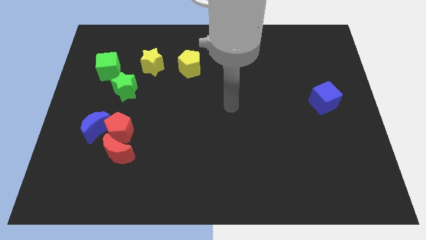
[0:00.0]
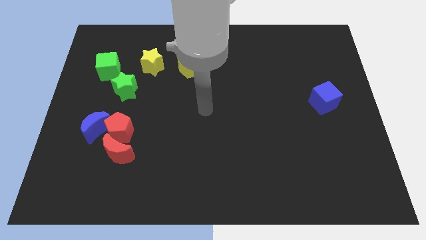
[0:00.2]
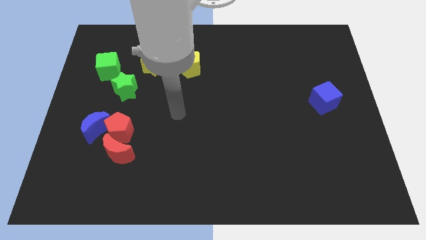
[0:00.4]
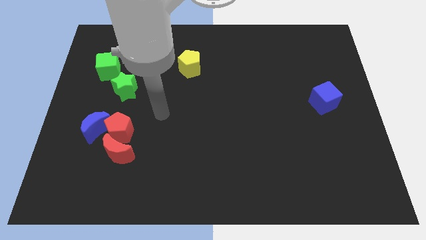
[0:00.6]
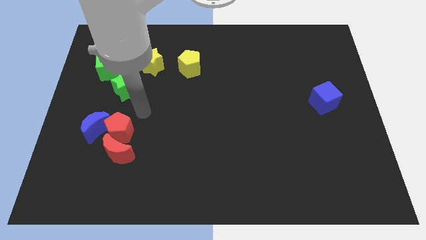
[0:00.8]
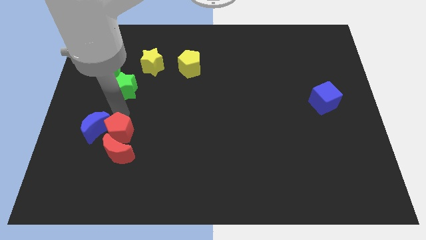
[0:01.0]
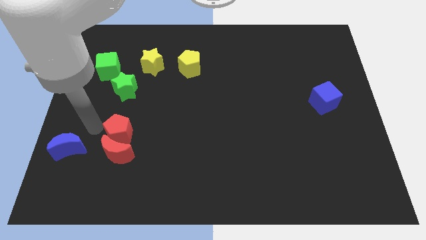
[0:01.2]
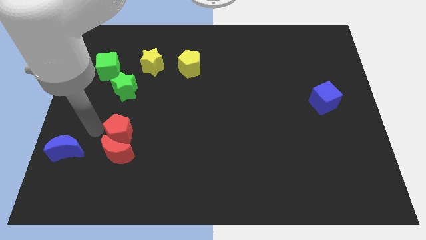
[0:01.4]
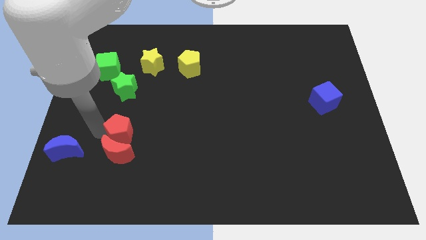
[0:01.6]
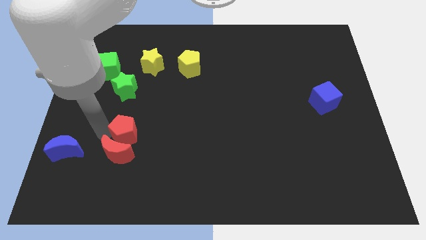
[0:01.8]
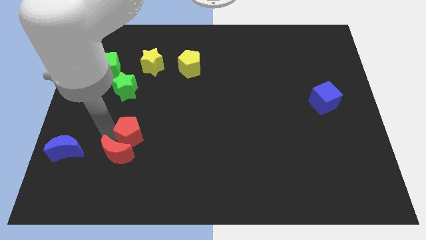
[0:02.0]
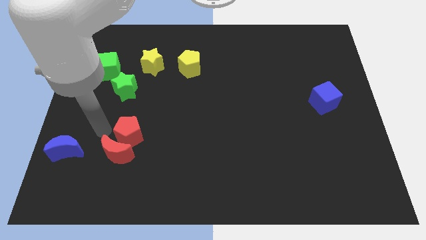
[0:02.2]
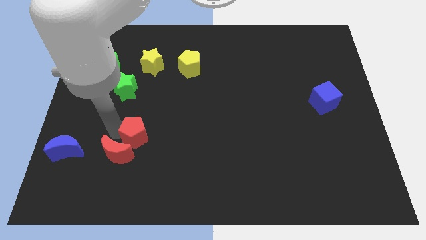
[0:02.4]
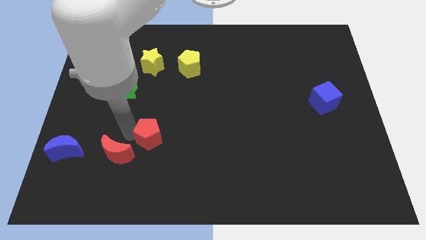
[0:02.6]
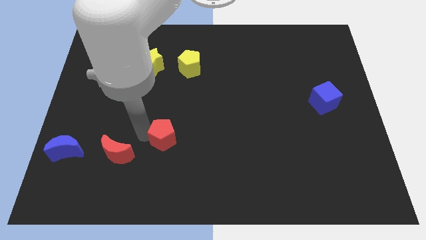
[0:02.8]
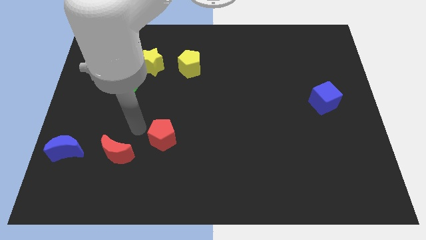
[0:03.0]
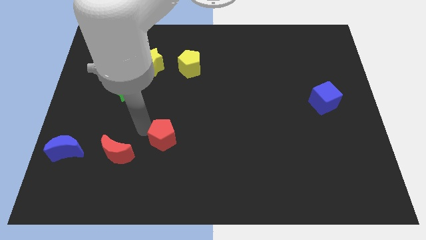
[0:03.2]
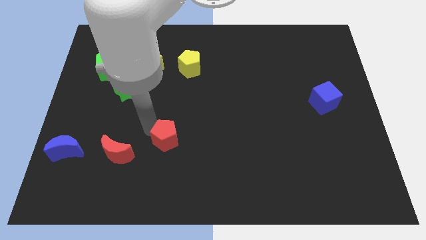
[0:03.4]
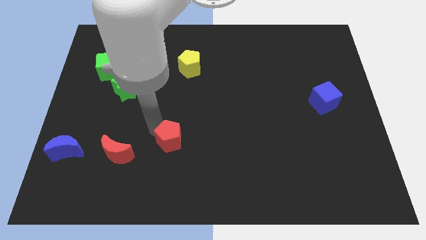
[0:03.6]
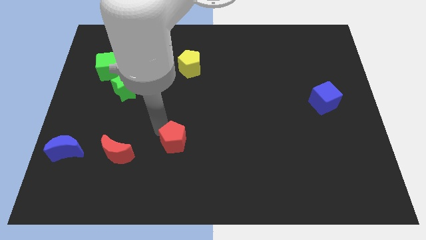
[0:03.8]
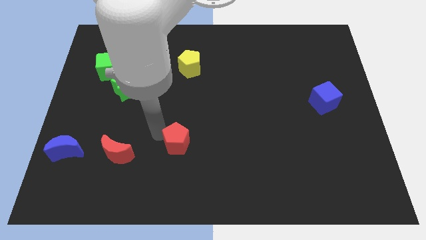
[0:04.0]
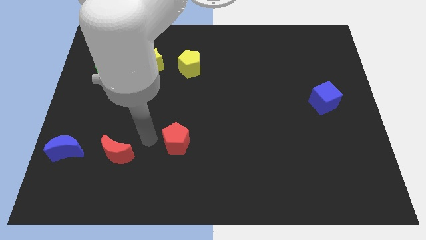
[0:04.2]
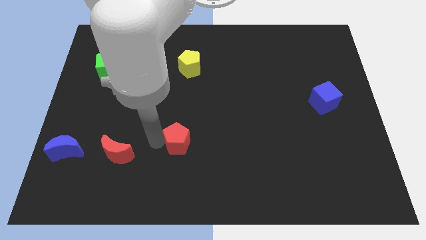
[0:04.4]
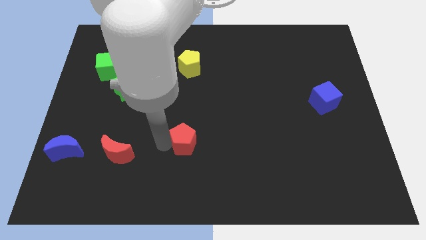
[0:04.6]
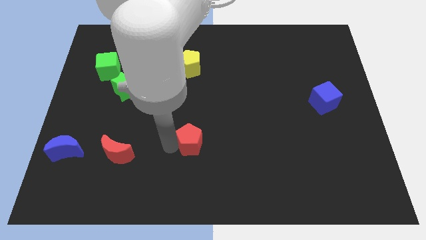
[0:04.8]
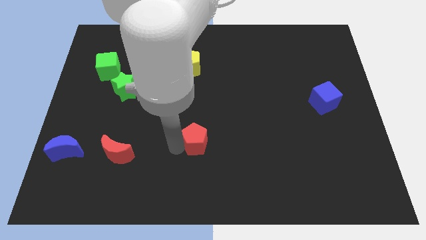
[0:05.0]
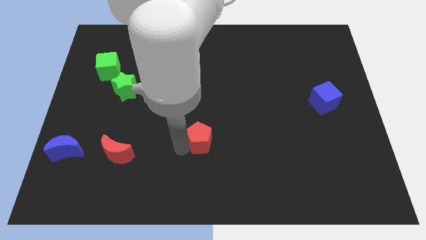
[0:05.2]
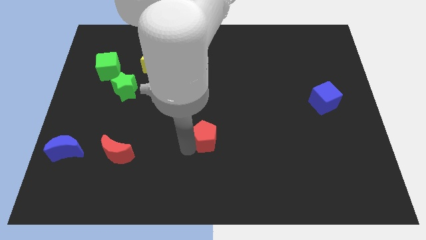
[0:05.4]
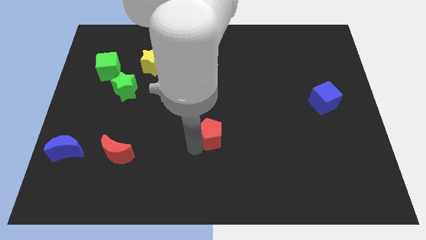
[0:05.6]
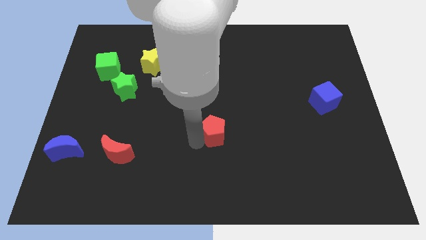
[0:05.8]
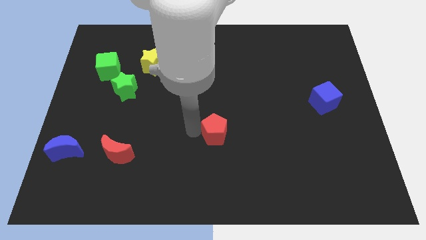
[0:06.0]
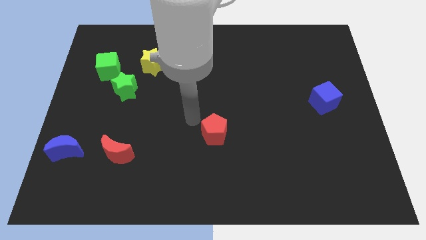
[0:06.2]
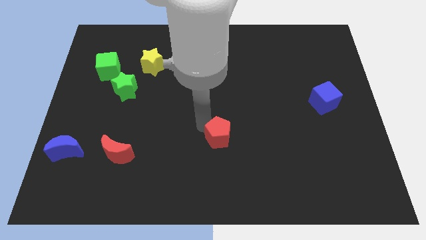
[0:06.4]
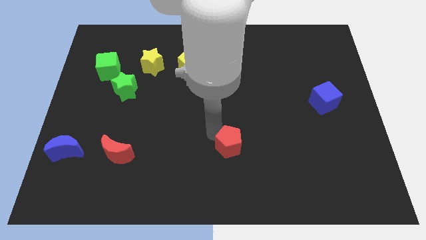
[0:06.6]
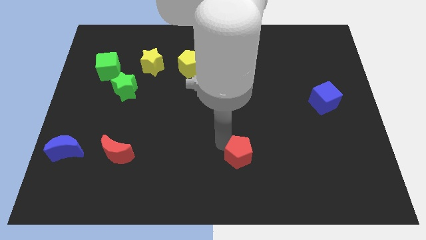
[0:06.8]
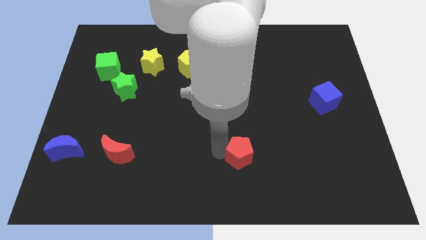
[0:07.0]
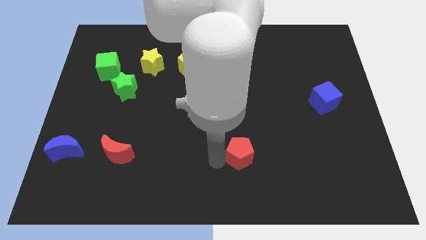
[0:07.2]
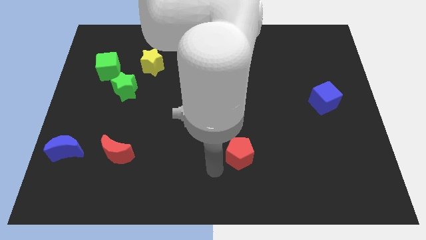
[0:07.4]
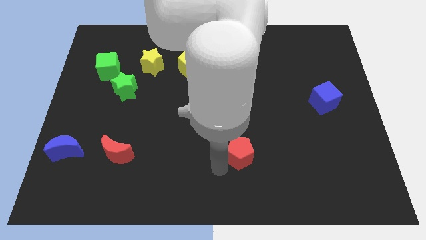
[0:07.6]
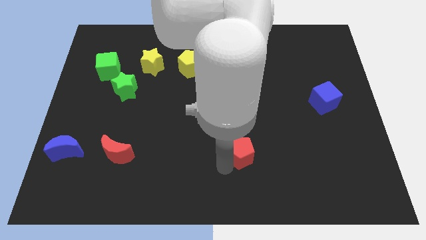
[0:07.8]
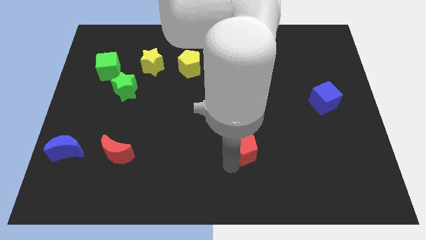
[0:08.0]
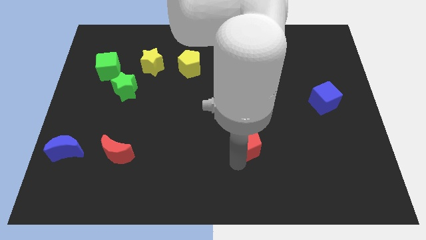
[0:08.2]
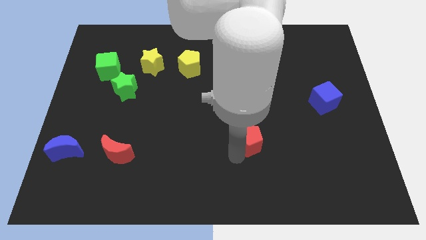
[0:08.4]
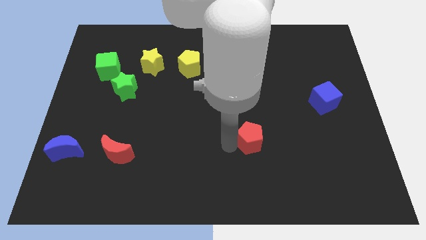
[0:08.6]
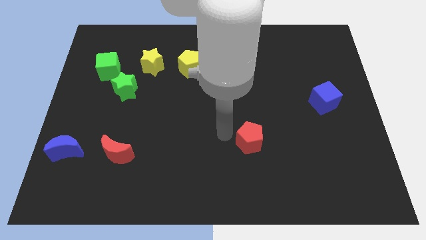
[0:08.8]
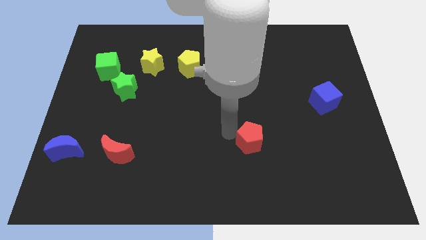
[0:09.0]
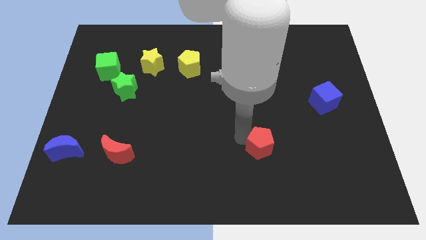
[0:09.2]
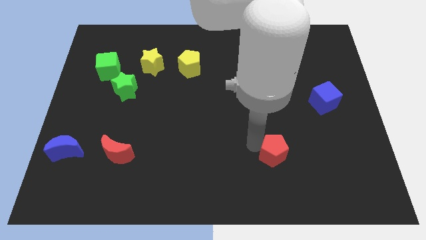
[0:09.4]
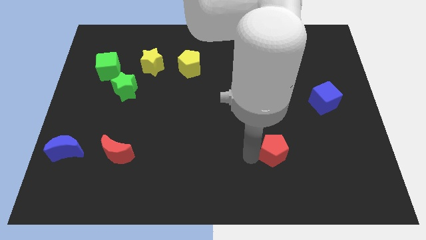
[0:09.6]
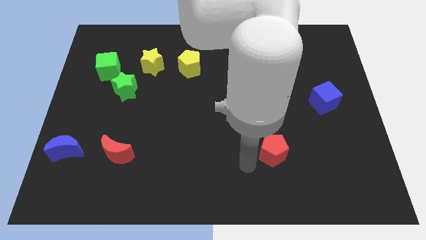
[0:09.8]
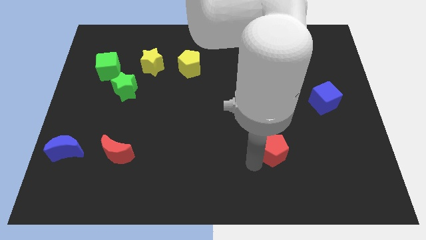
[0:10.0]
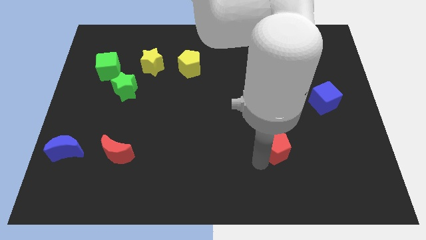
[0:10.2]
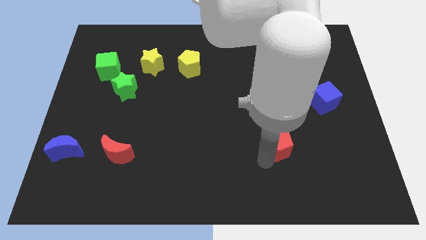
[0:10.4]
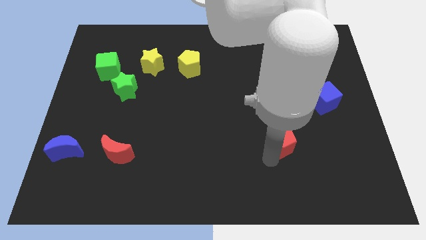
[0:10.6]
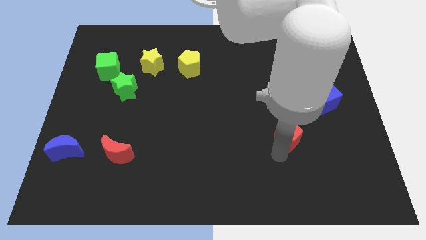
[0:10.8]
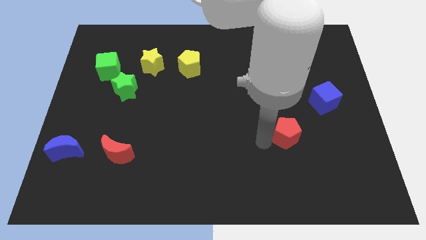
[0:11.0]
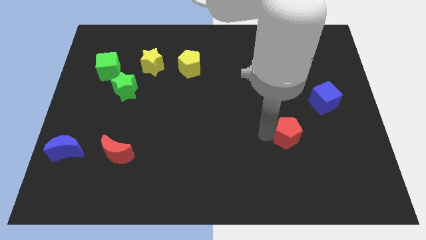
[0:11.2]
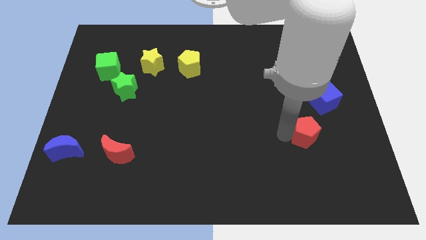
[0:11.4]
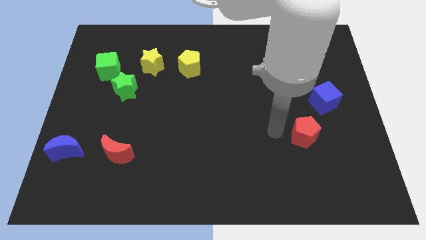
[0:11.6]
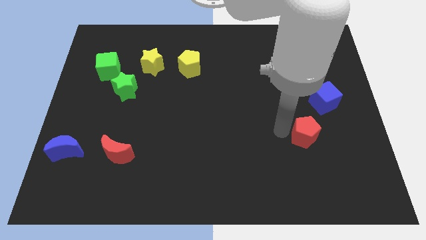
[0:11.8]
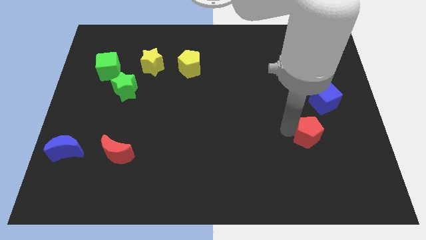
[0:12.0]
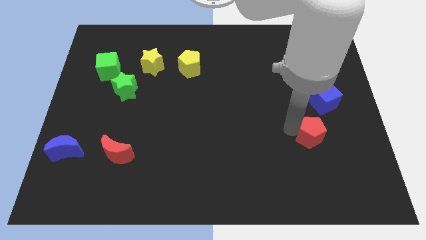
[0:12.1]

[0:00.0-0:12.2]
move the red pentagon to the bottom side of the blue cube
